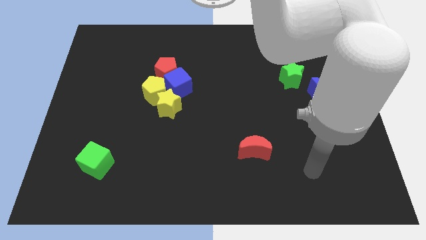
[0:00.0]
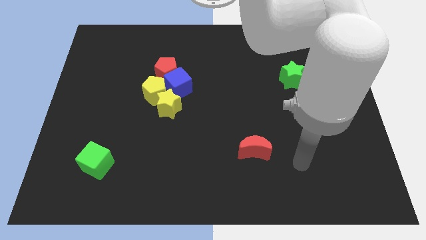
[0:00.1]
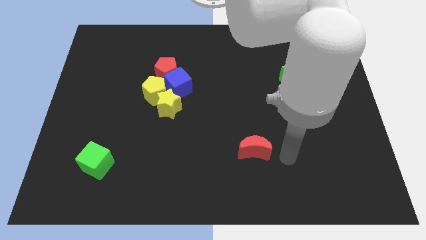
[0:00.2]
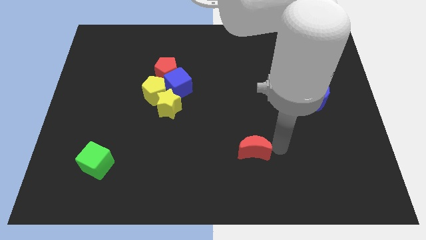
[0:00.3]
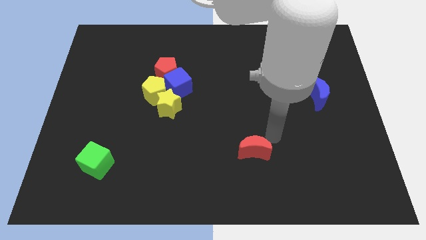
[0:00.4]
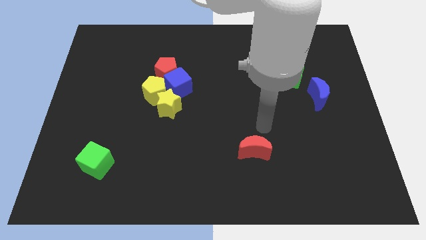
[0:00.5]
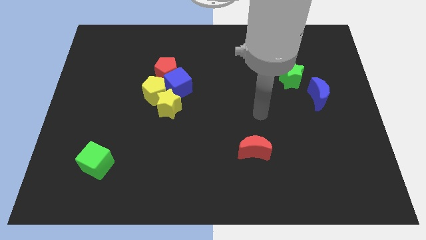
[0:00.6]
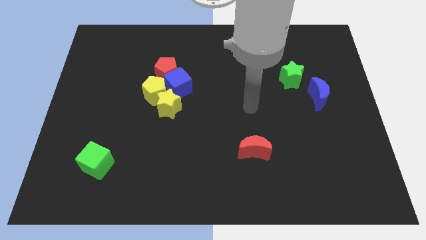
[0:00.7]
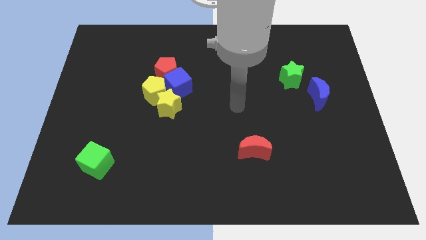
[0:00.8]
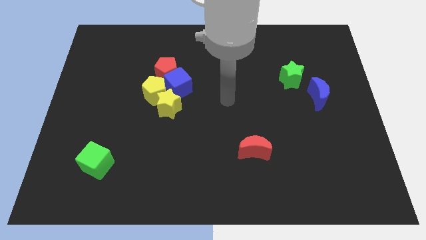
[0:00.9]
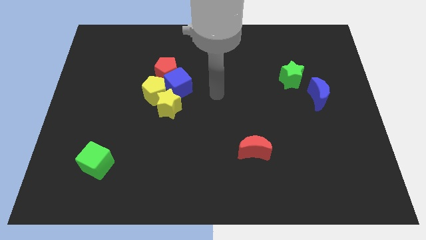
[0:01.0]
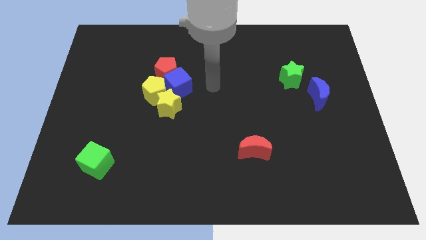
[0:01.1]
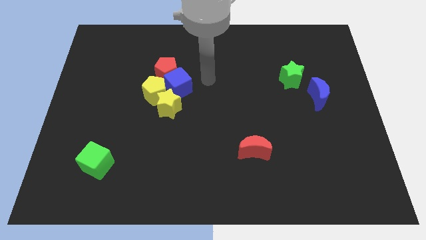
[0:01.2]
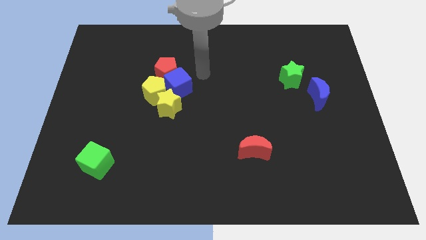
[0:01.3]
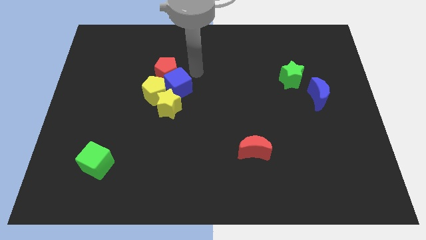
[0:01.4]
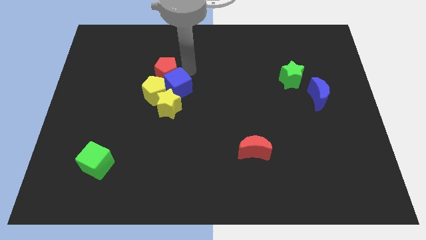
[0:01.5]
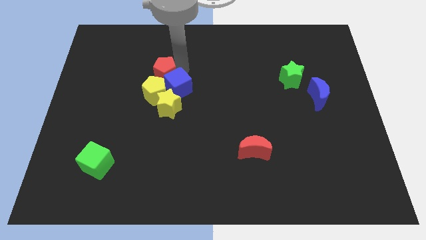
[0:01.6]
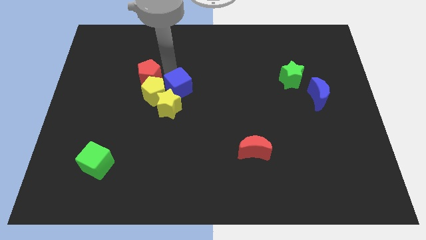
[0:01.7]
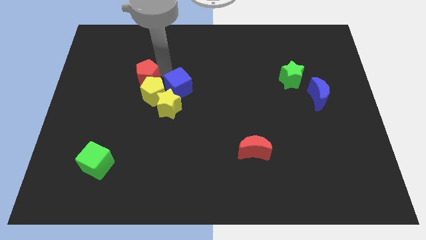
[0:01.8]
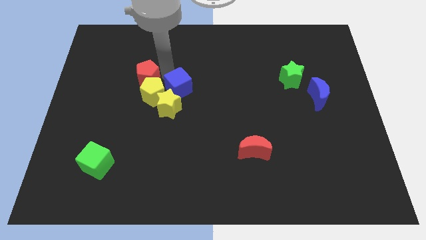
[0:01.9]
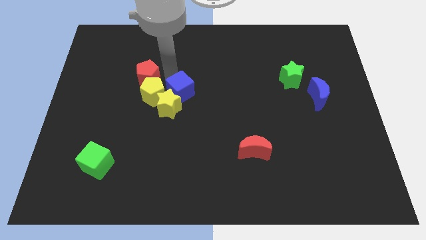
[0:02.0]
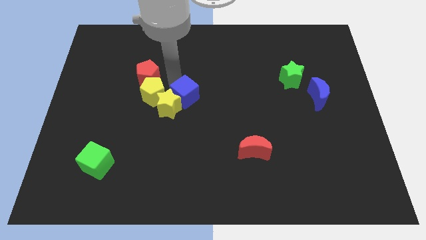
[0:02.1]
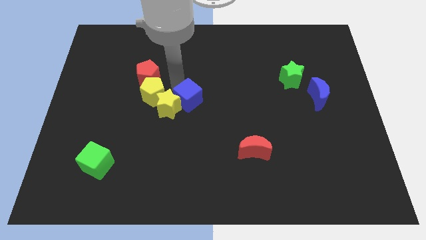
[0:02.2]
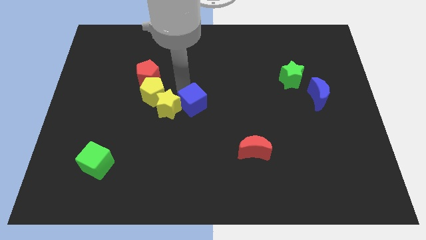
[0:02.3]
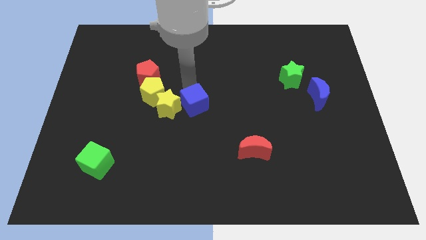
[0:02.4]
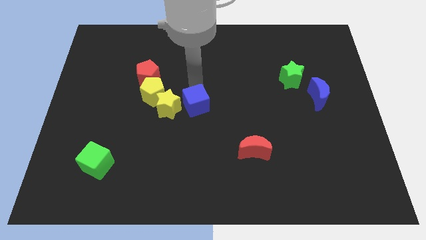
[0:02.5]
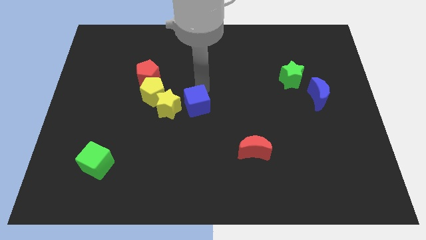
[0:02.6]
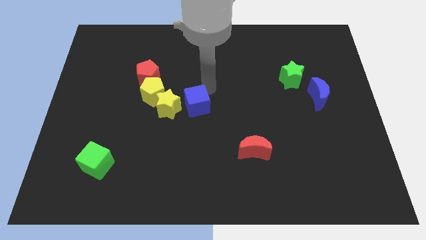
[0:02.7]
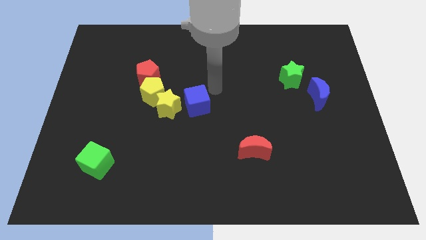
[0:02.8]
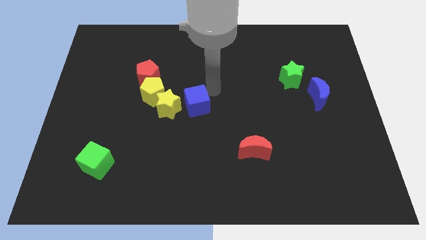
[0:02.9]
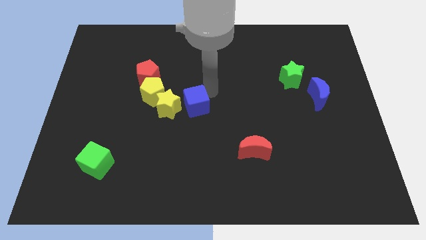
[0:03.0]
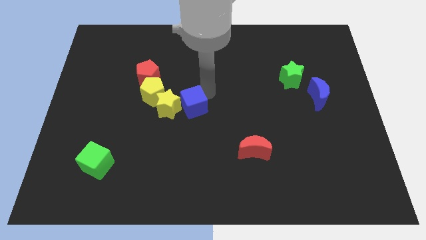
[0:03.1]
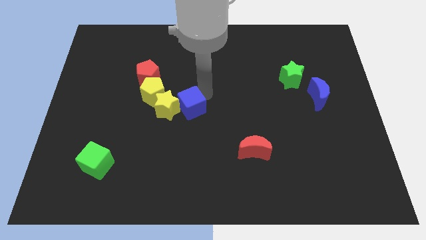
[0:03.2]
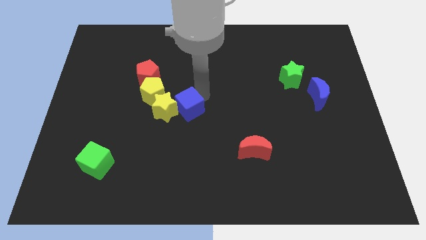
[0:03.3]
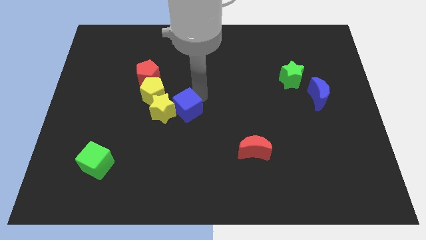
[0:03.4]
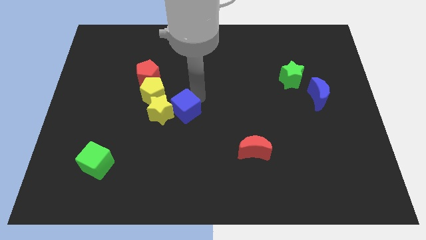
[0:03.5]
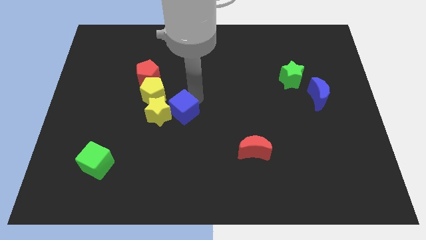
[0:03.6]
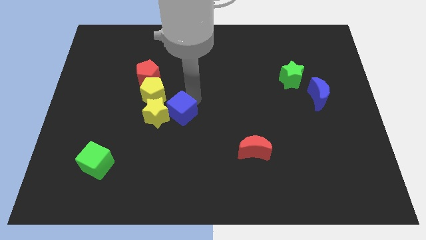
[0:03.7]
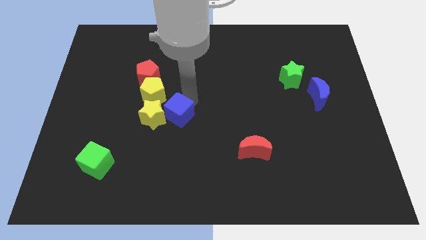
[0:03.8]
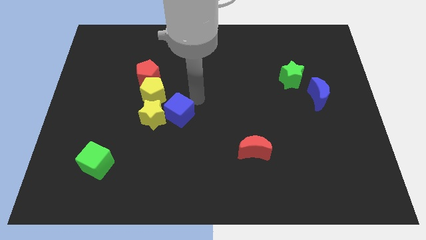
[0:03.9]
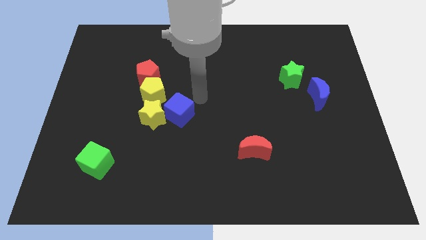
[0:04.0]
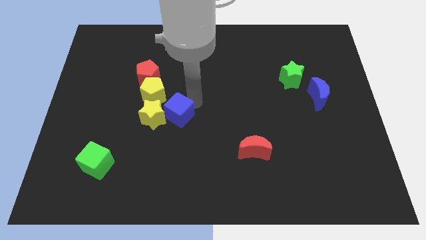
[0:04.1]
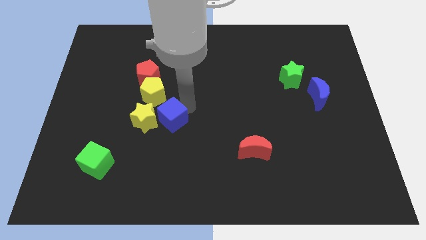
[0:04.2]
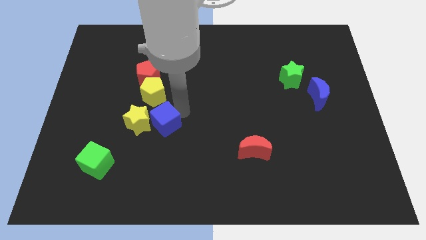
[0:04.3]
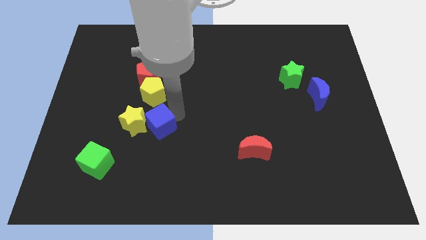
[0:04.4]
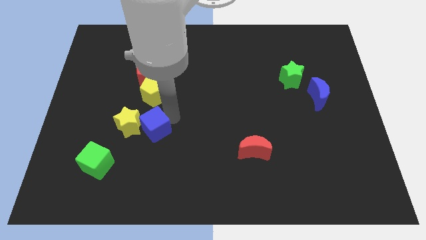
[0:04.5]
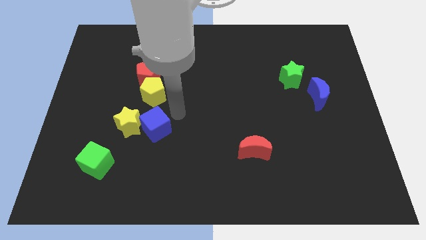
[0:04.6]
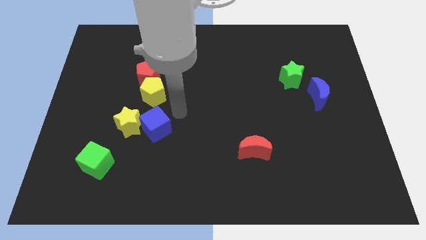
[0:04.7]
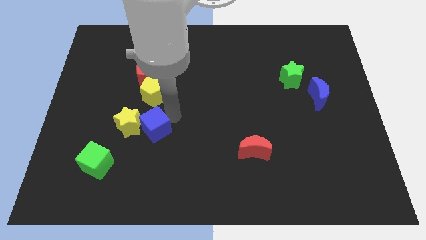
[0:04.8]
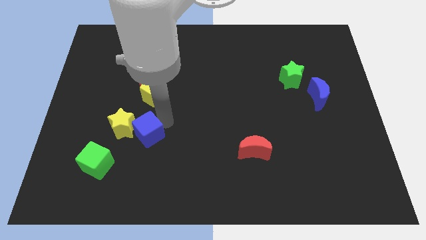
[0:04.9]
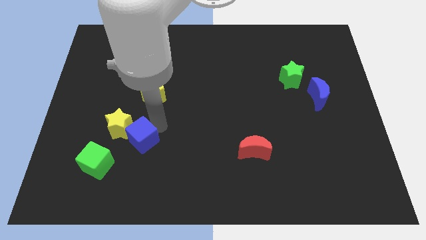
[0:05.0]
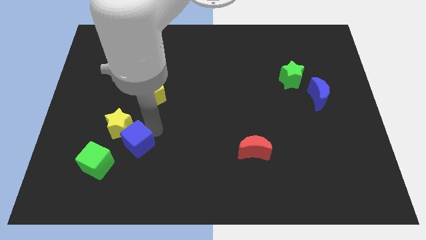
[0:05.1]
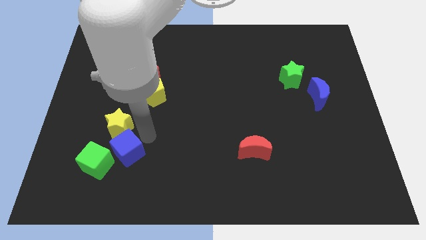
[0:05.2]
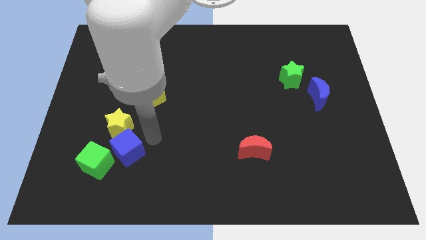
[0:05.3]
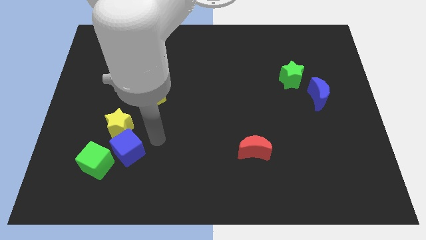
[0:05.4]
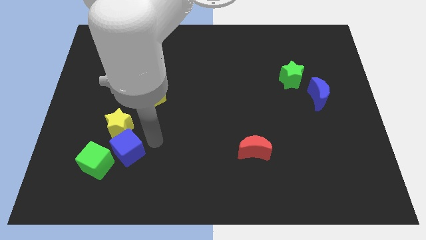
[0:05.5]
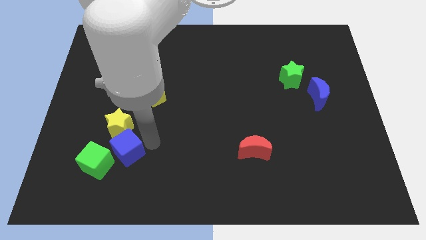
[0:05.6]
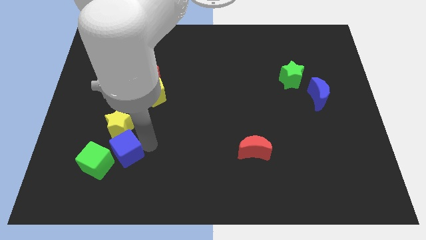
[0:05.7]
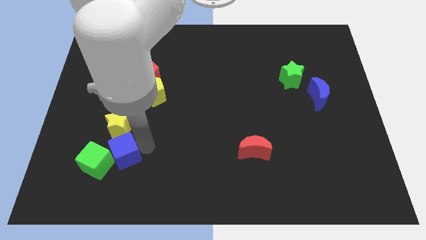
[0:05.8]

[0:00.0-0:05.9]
push the blue cube to the green cube
